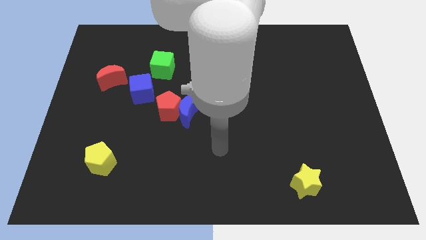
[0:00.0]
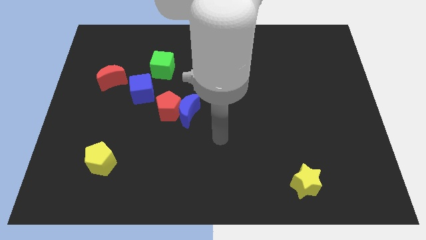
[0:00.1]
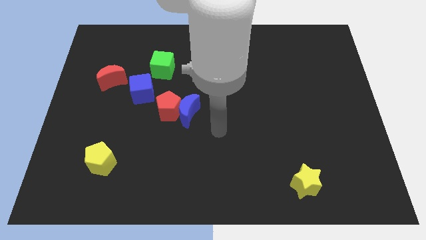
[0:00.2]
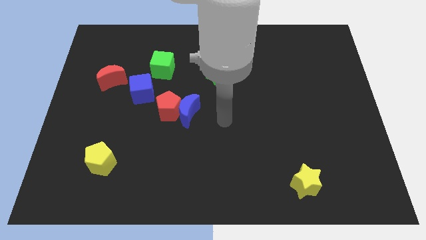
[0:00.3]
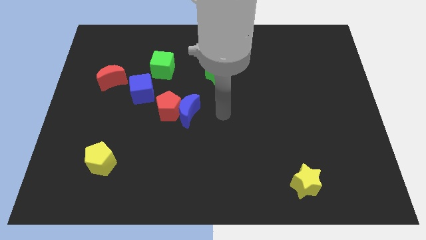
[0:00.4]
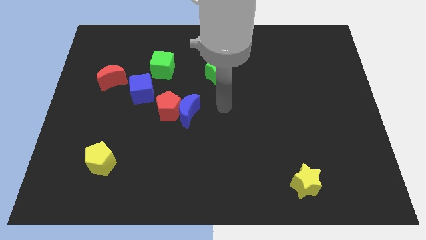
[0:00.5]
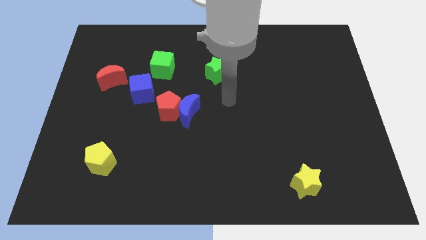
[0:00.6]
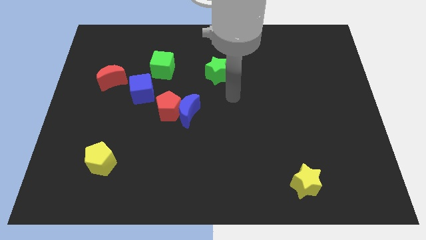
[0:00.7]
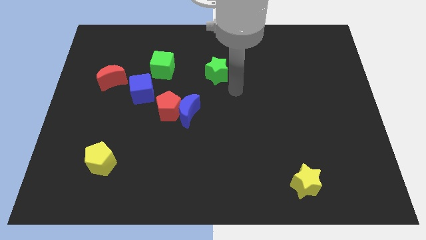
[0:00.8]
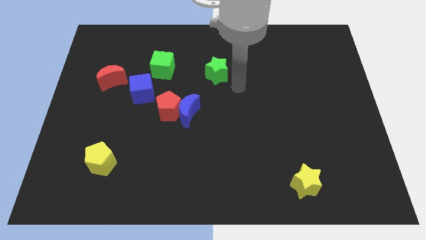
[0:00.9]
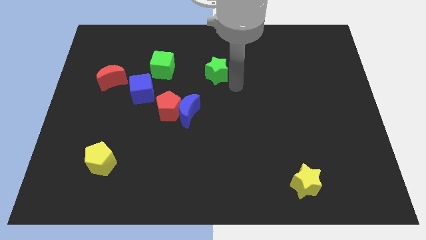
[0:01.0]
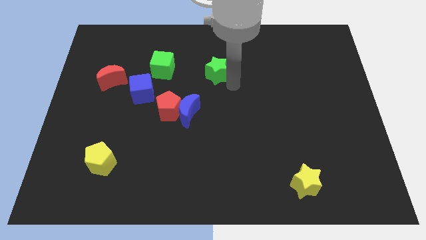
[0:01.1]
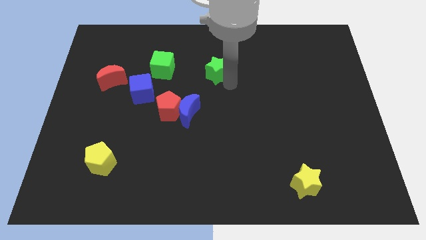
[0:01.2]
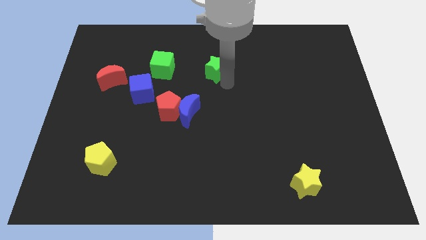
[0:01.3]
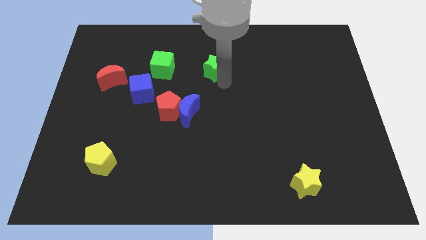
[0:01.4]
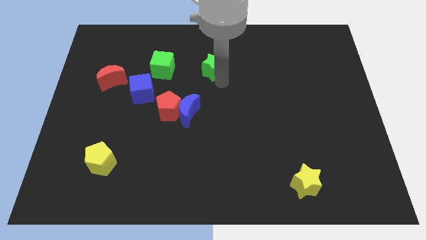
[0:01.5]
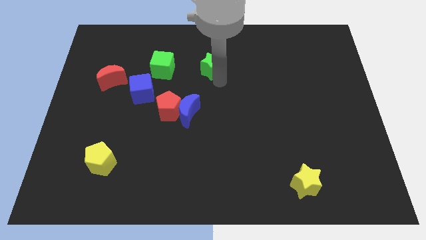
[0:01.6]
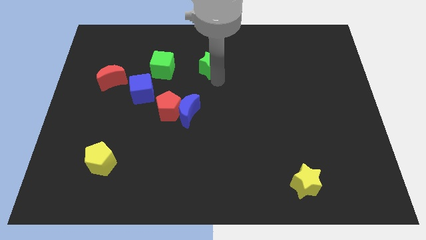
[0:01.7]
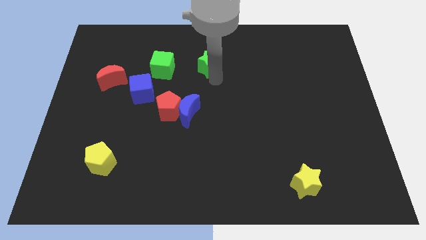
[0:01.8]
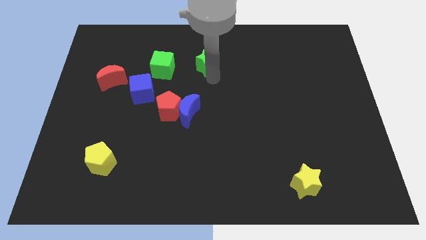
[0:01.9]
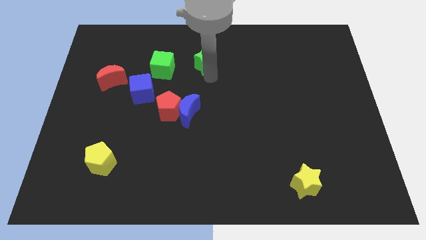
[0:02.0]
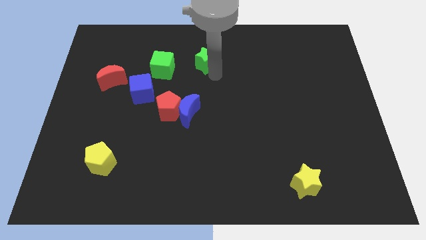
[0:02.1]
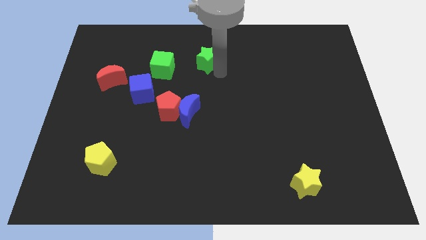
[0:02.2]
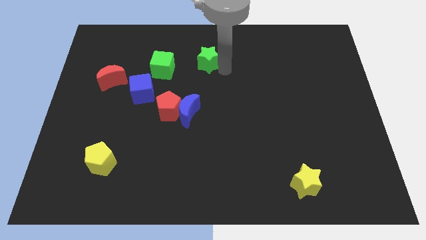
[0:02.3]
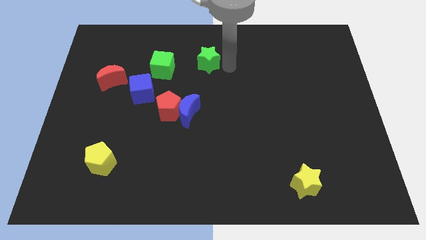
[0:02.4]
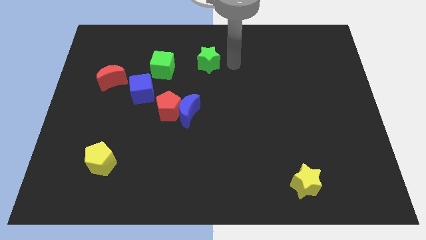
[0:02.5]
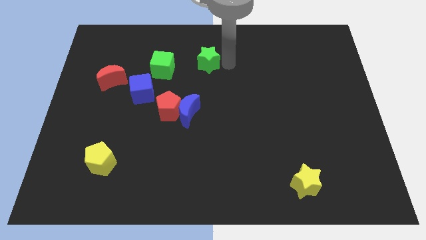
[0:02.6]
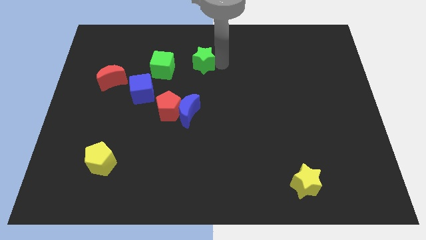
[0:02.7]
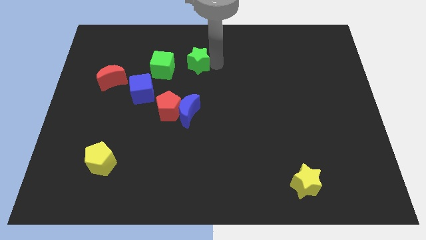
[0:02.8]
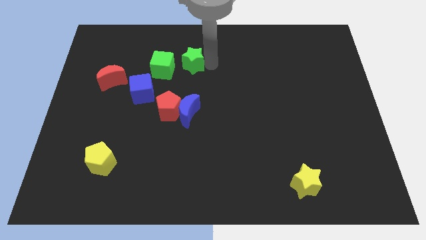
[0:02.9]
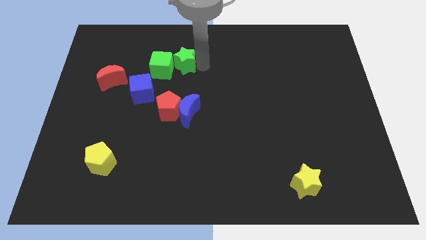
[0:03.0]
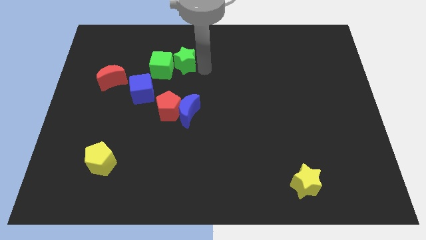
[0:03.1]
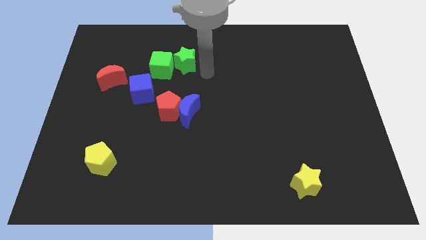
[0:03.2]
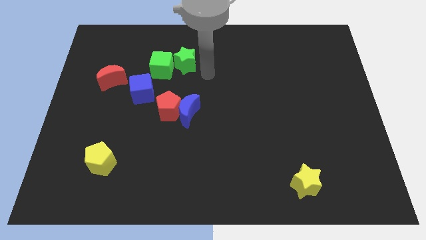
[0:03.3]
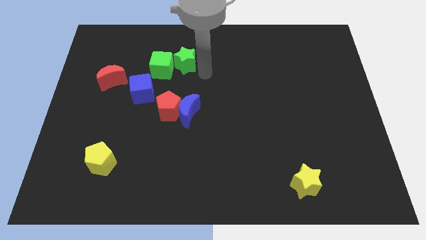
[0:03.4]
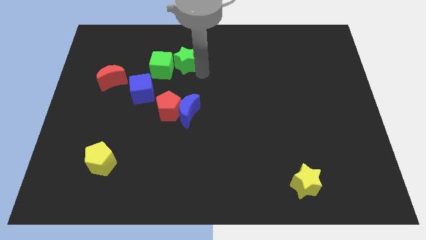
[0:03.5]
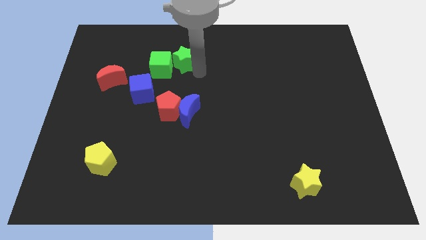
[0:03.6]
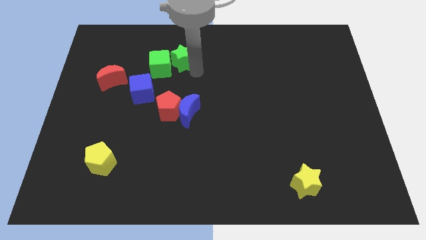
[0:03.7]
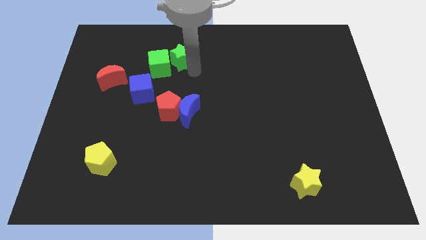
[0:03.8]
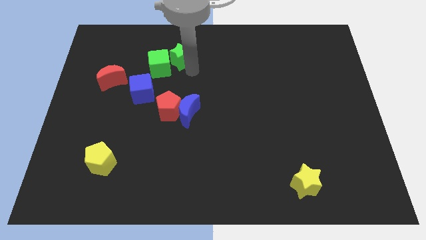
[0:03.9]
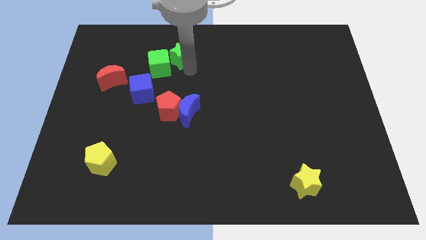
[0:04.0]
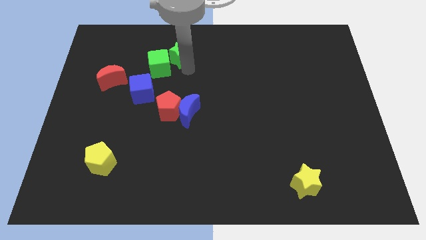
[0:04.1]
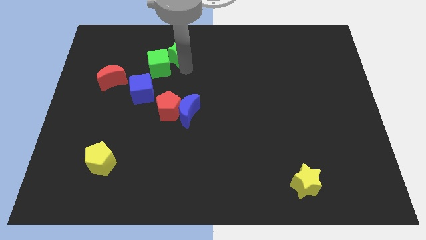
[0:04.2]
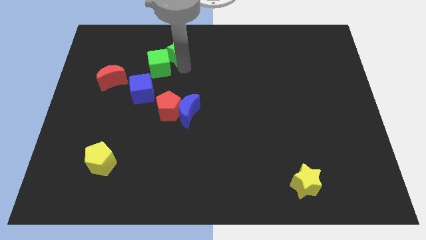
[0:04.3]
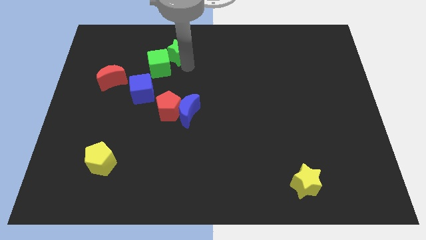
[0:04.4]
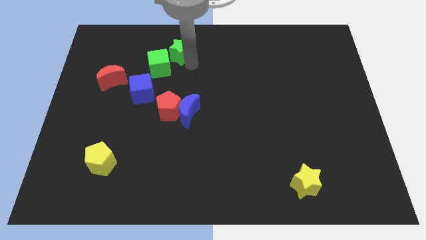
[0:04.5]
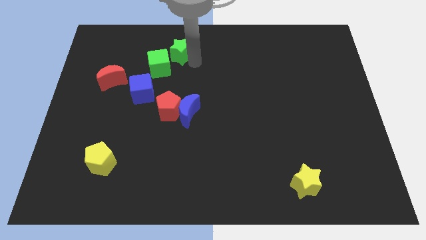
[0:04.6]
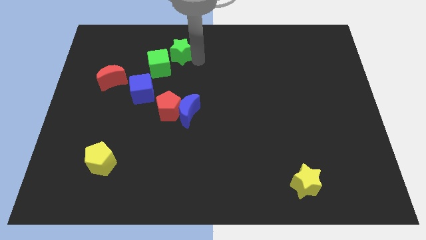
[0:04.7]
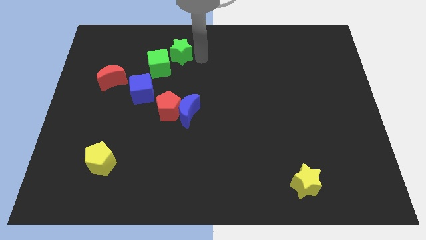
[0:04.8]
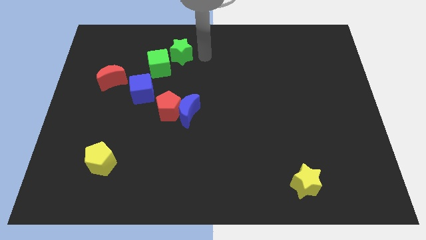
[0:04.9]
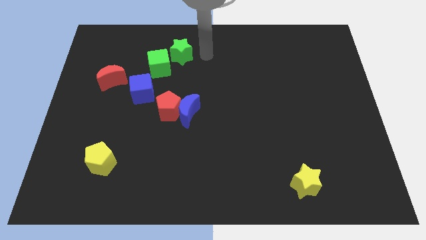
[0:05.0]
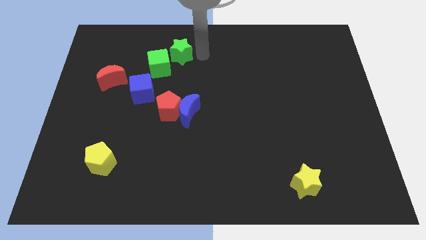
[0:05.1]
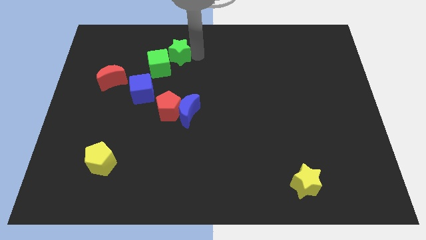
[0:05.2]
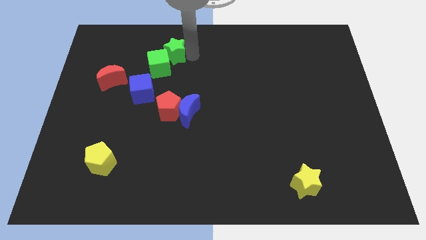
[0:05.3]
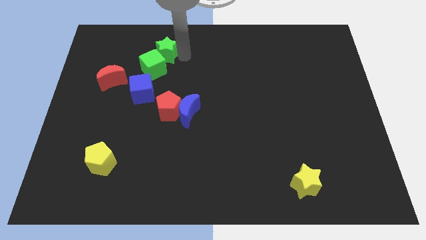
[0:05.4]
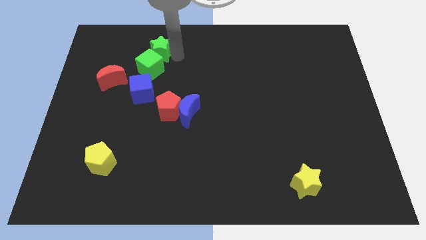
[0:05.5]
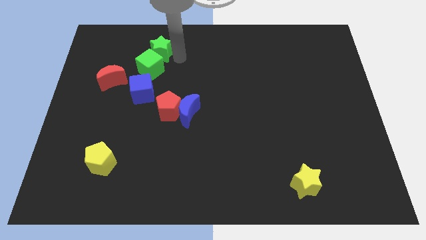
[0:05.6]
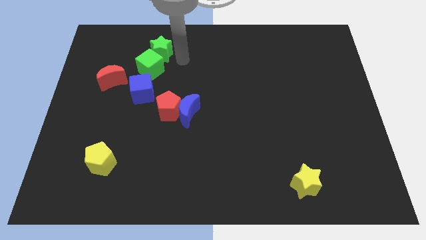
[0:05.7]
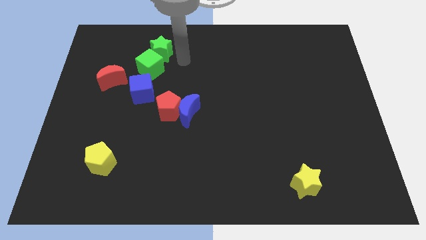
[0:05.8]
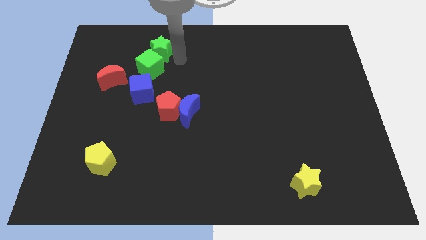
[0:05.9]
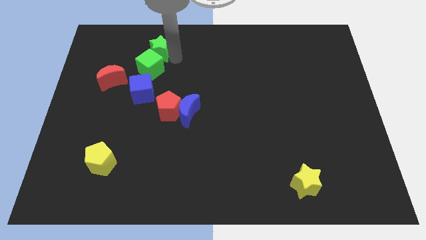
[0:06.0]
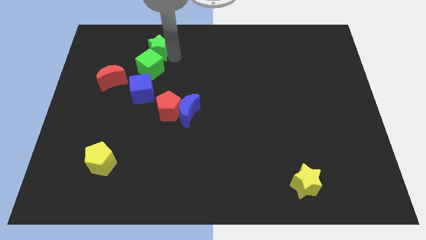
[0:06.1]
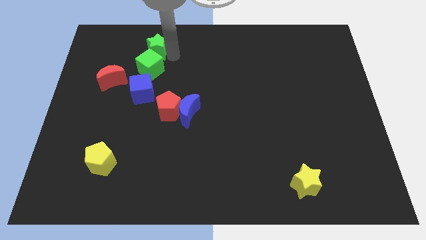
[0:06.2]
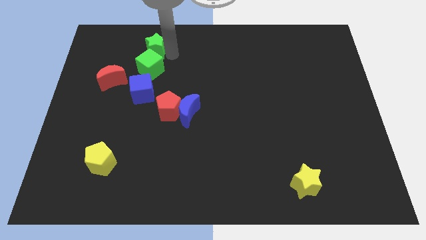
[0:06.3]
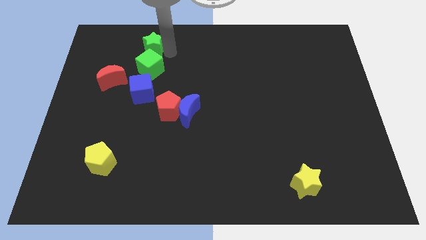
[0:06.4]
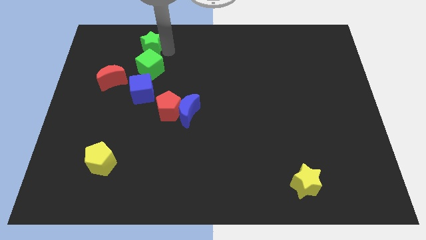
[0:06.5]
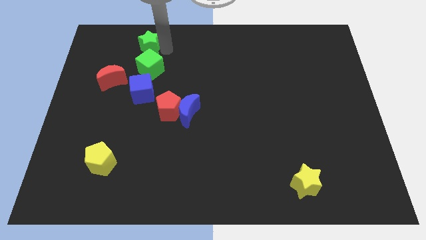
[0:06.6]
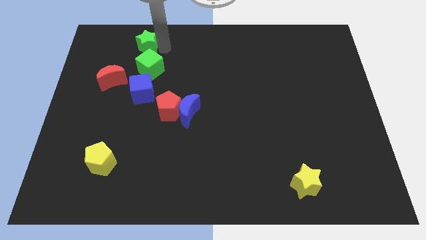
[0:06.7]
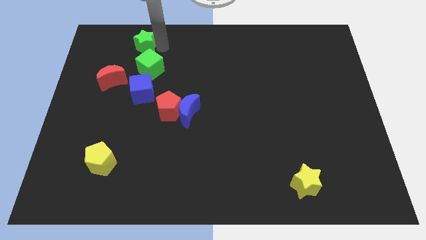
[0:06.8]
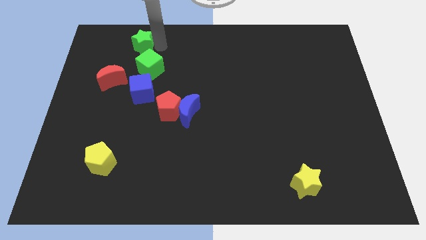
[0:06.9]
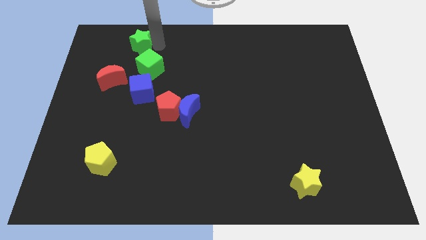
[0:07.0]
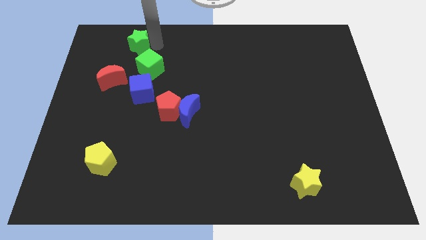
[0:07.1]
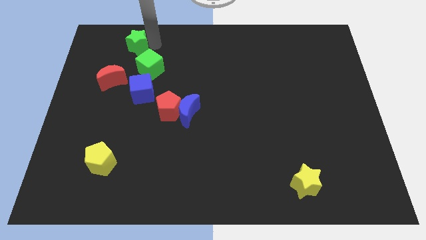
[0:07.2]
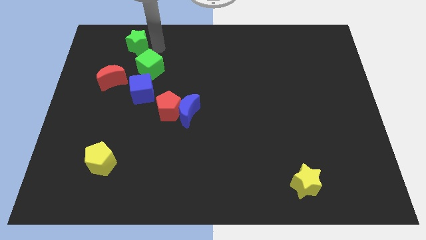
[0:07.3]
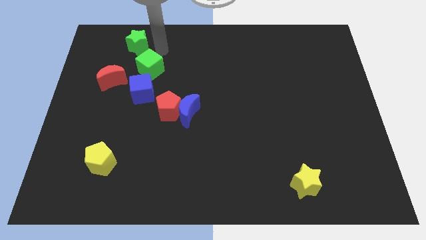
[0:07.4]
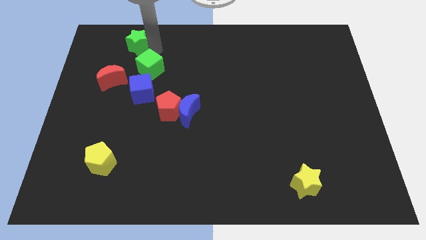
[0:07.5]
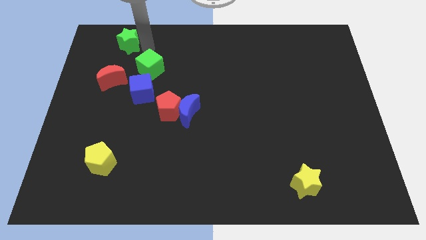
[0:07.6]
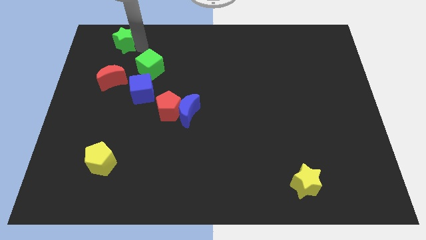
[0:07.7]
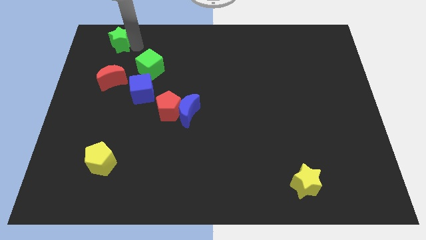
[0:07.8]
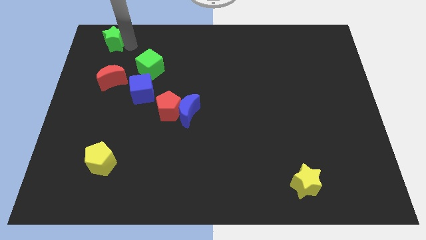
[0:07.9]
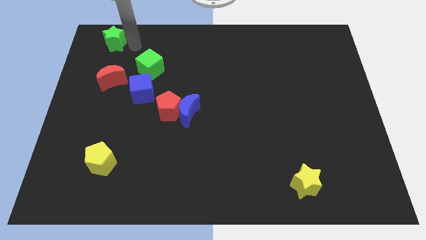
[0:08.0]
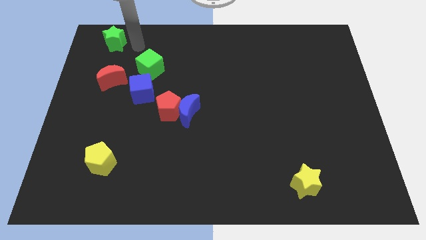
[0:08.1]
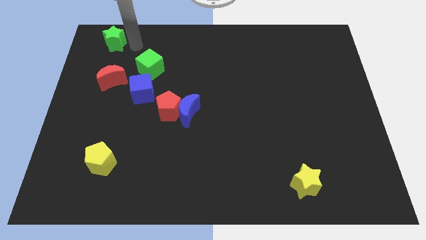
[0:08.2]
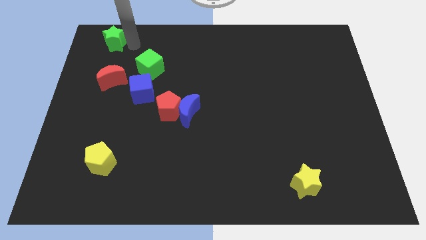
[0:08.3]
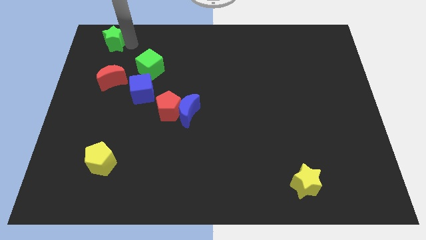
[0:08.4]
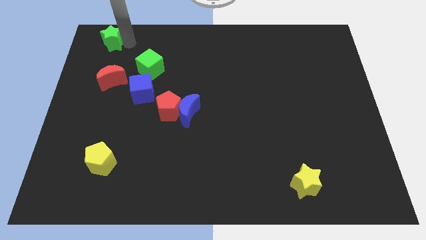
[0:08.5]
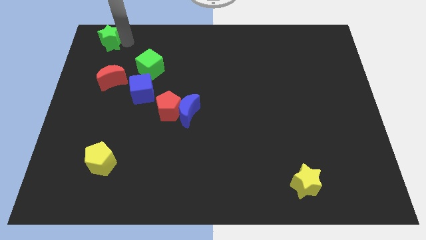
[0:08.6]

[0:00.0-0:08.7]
put the green star to the top left of the board
